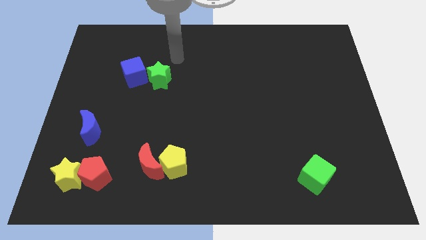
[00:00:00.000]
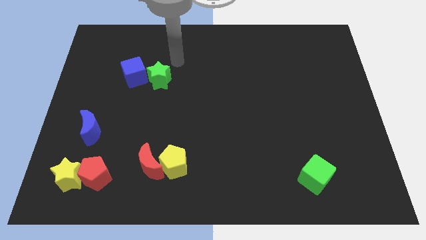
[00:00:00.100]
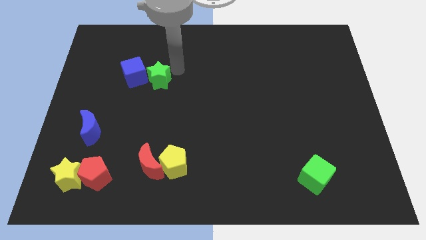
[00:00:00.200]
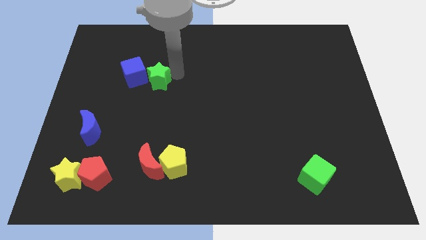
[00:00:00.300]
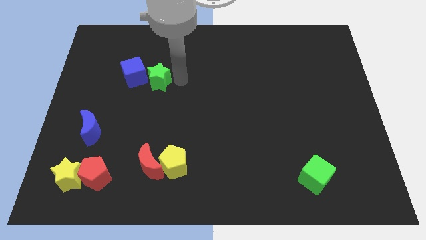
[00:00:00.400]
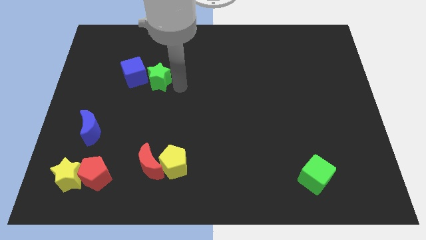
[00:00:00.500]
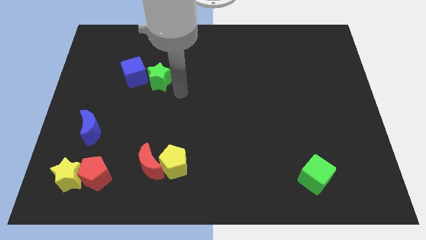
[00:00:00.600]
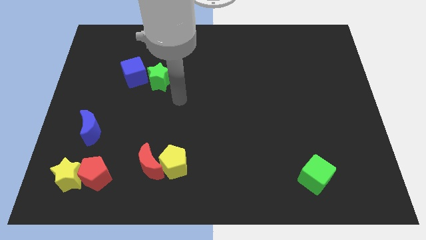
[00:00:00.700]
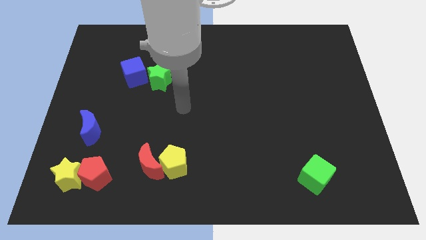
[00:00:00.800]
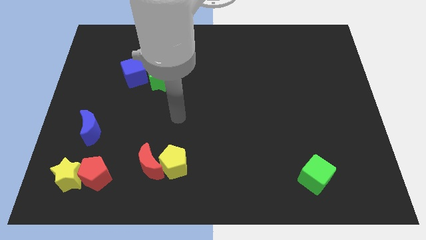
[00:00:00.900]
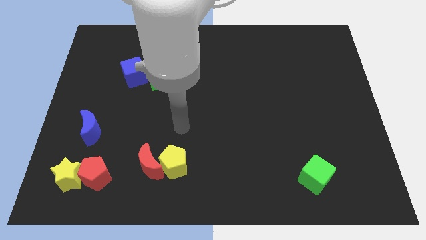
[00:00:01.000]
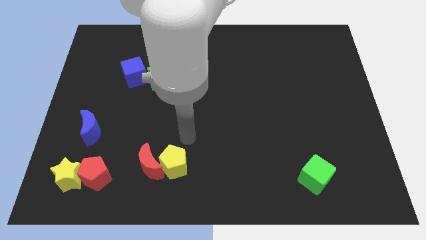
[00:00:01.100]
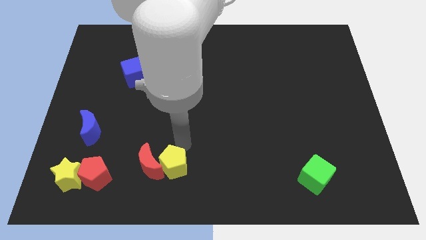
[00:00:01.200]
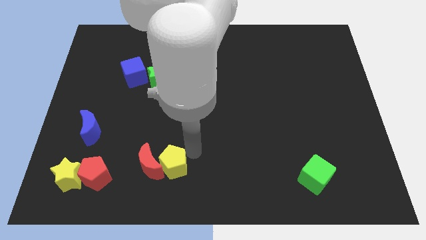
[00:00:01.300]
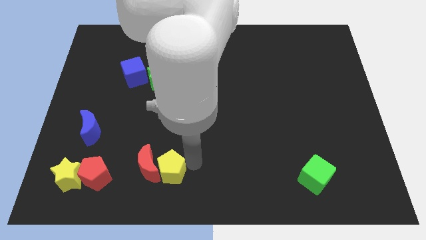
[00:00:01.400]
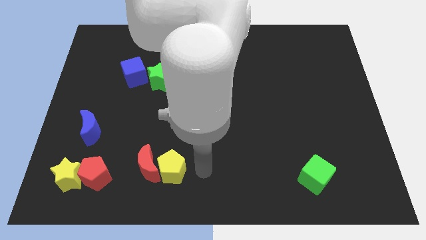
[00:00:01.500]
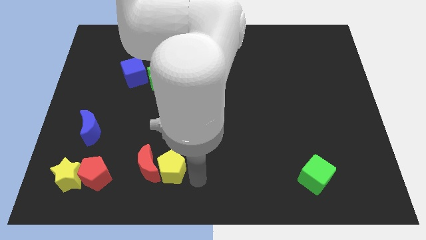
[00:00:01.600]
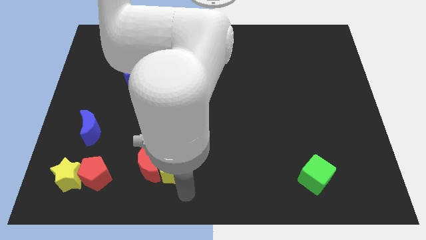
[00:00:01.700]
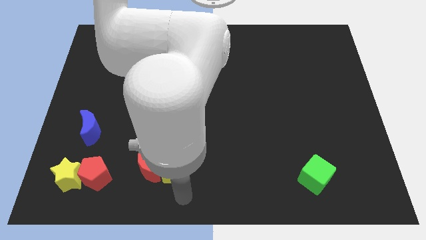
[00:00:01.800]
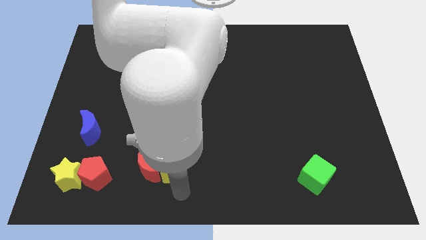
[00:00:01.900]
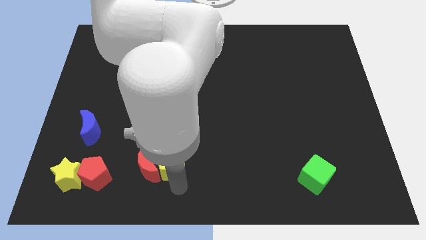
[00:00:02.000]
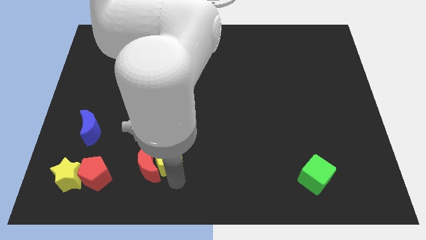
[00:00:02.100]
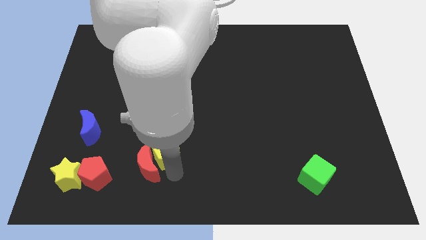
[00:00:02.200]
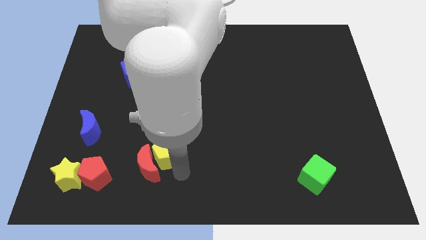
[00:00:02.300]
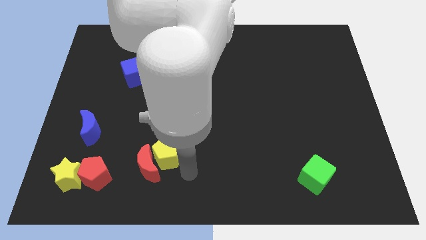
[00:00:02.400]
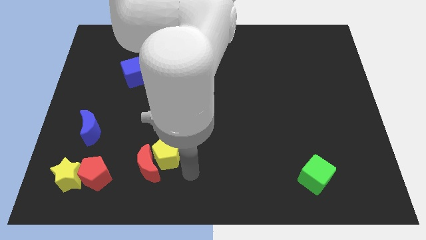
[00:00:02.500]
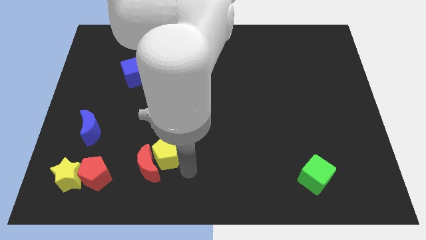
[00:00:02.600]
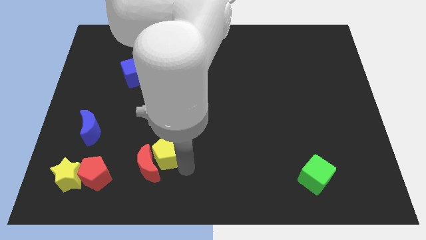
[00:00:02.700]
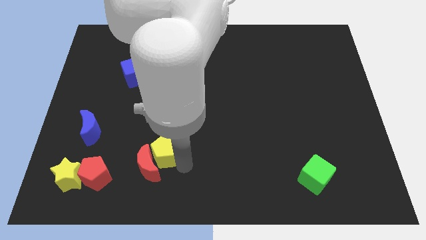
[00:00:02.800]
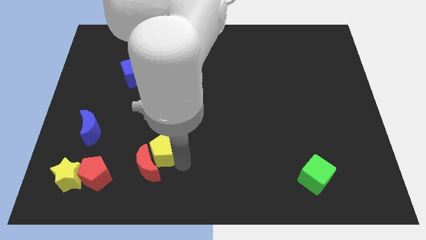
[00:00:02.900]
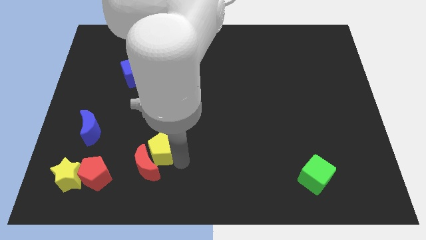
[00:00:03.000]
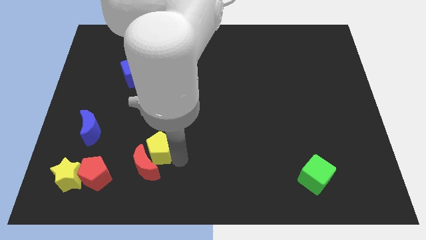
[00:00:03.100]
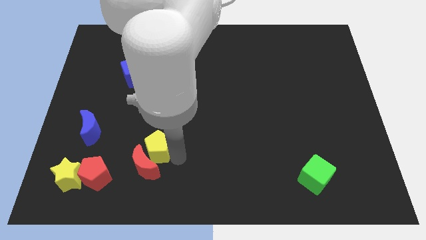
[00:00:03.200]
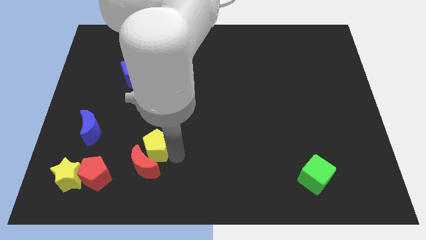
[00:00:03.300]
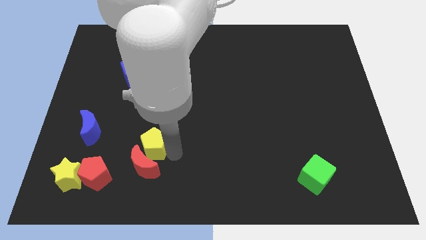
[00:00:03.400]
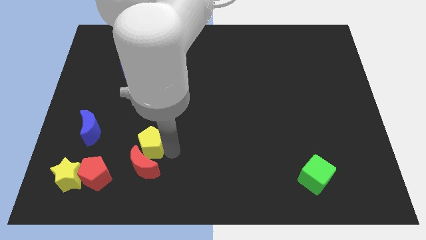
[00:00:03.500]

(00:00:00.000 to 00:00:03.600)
slightly push the yellow pentagon diagonally upwards and to the left

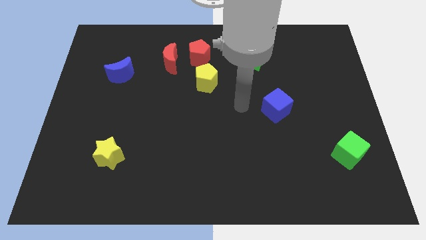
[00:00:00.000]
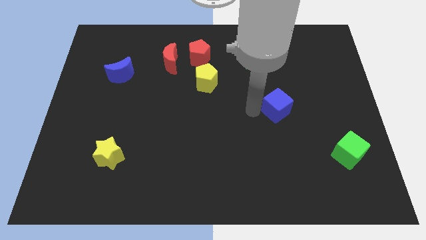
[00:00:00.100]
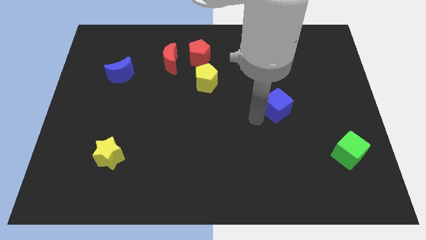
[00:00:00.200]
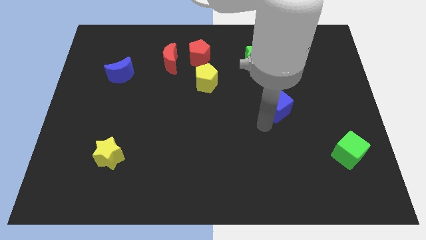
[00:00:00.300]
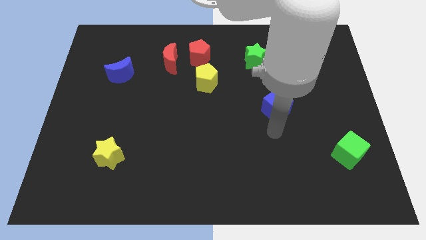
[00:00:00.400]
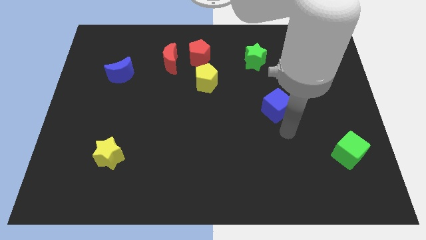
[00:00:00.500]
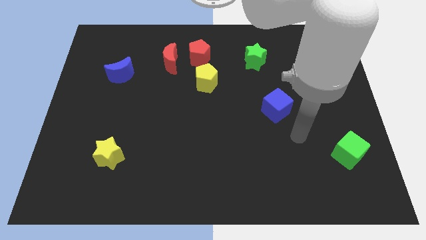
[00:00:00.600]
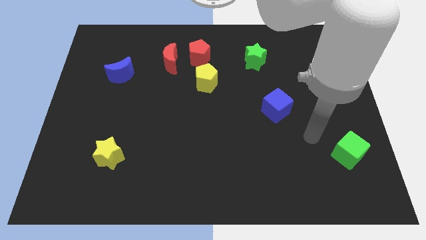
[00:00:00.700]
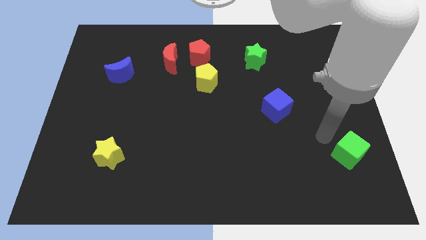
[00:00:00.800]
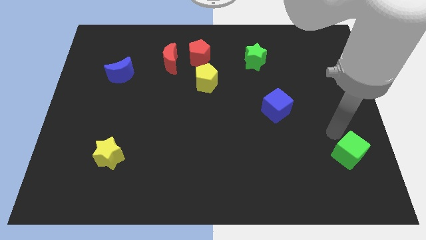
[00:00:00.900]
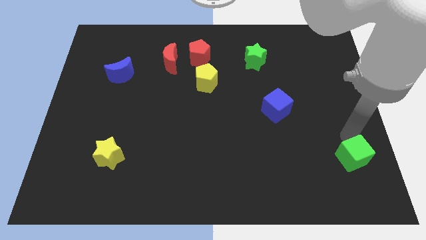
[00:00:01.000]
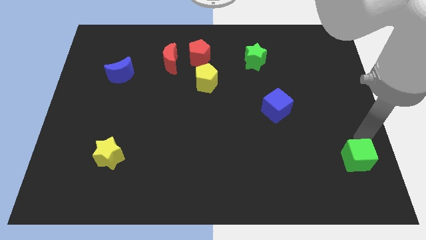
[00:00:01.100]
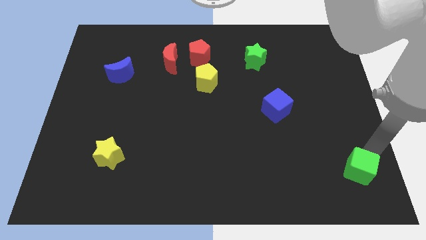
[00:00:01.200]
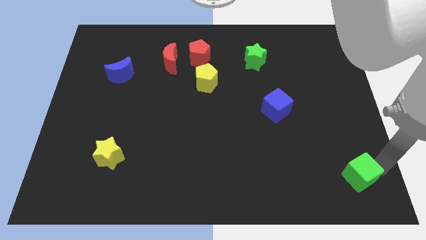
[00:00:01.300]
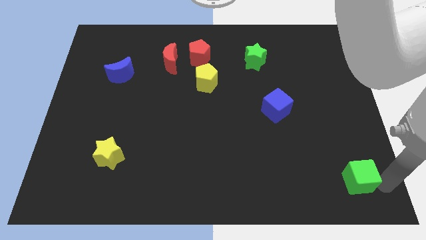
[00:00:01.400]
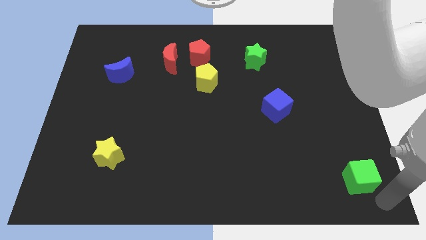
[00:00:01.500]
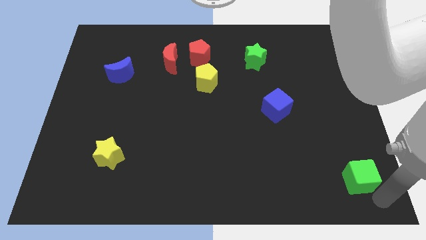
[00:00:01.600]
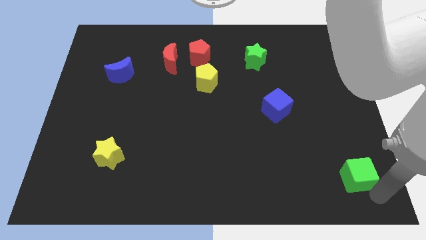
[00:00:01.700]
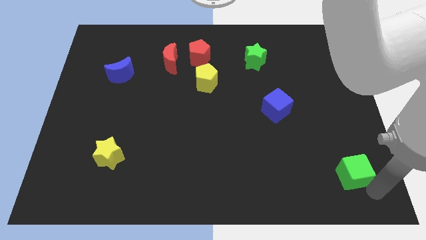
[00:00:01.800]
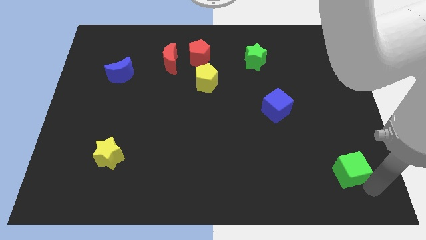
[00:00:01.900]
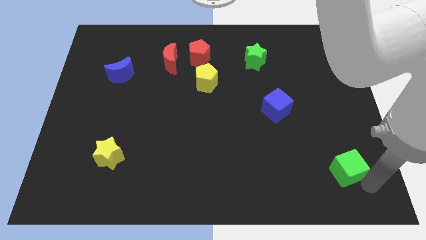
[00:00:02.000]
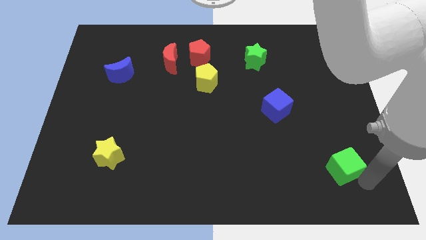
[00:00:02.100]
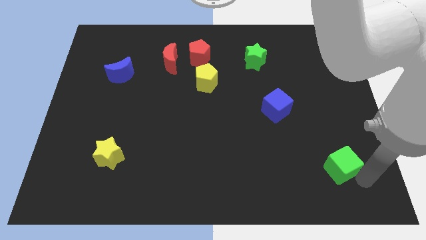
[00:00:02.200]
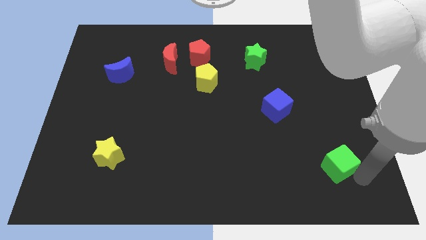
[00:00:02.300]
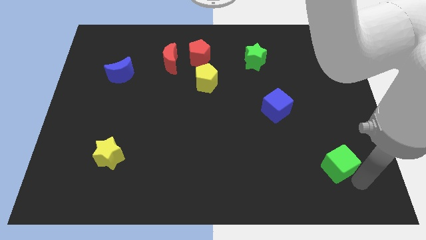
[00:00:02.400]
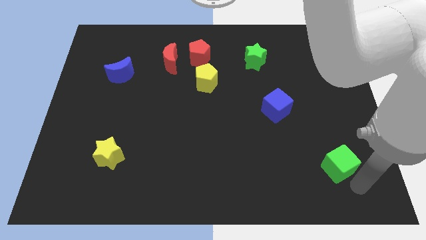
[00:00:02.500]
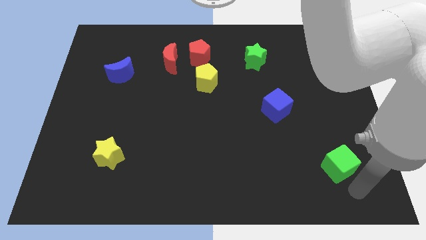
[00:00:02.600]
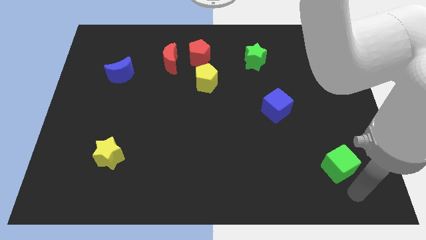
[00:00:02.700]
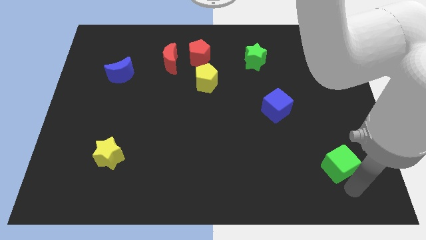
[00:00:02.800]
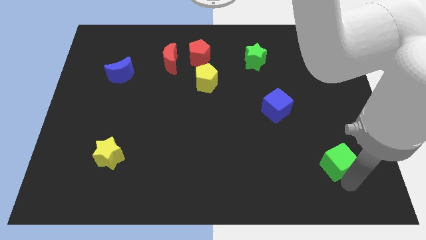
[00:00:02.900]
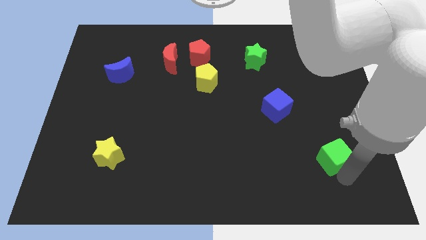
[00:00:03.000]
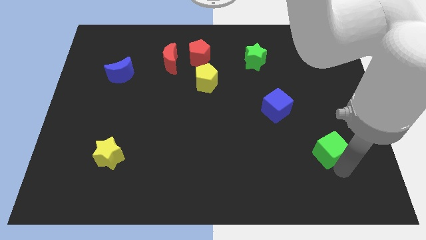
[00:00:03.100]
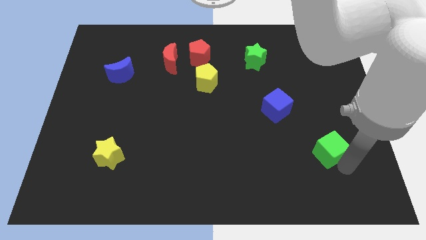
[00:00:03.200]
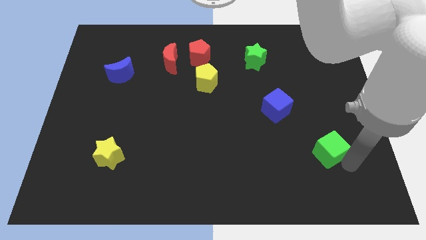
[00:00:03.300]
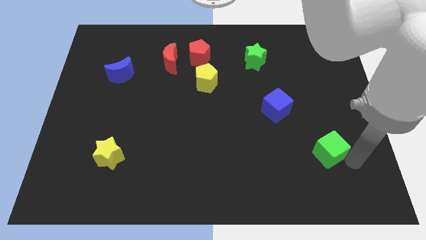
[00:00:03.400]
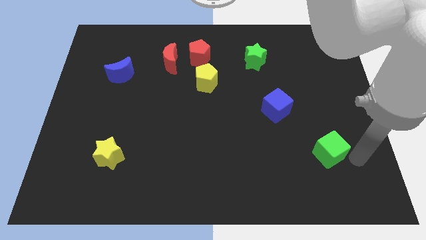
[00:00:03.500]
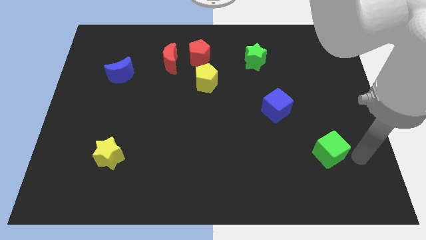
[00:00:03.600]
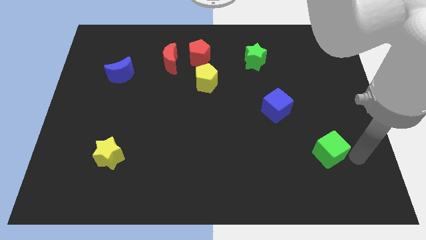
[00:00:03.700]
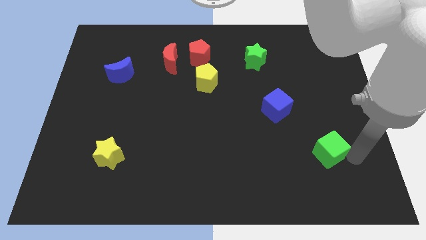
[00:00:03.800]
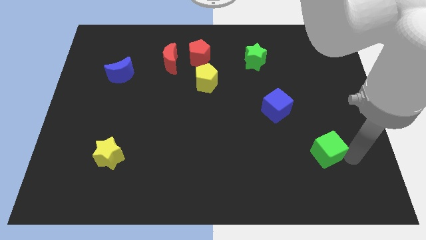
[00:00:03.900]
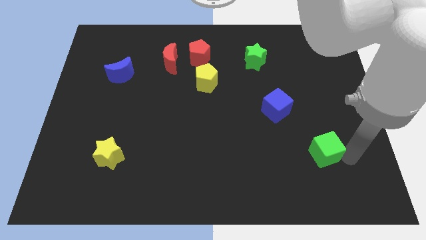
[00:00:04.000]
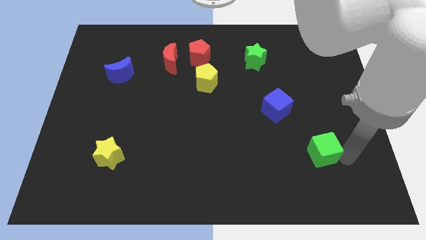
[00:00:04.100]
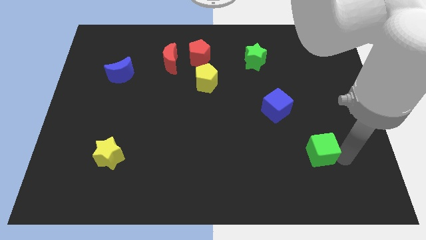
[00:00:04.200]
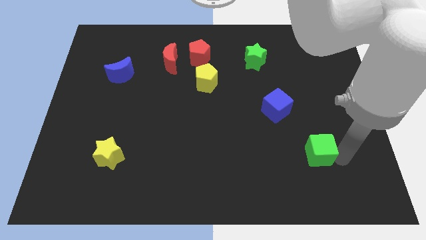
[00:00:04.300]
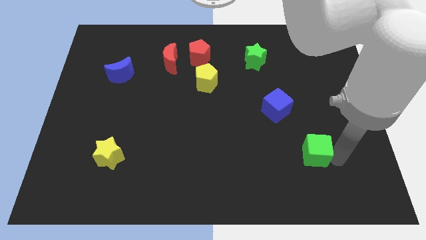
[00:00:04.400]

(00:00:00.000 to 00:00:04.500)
move the green cube a bit left

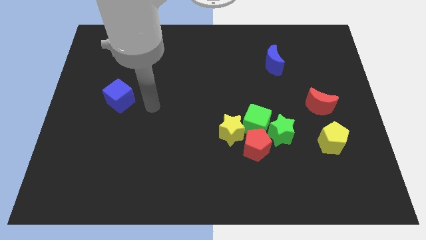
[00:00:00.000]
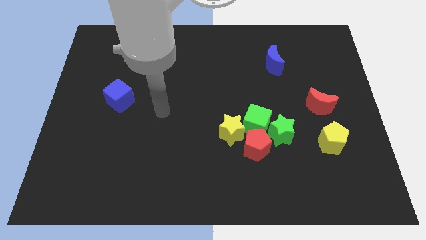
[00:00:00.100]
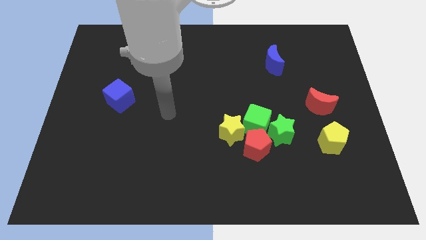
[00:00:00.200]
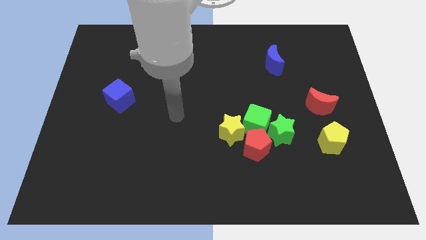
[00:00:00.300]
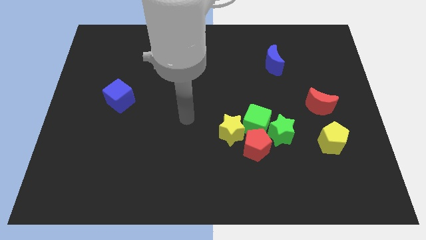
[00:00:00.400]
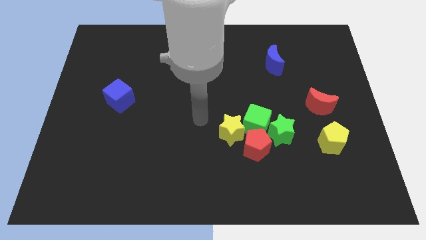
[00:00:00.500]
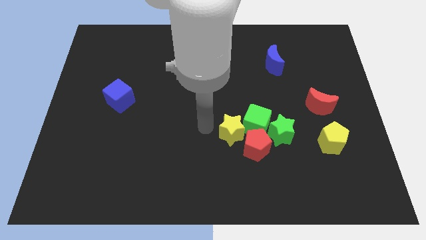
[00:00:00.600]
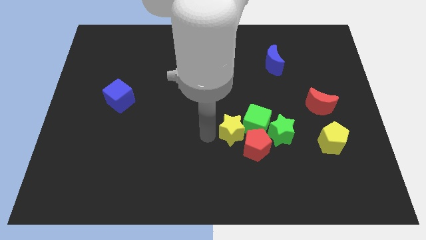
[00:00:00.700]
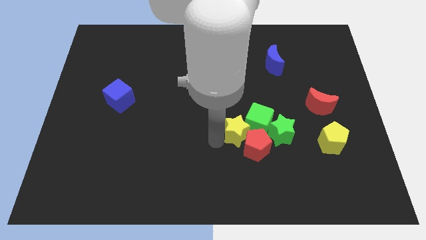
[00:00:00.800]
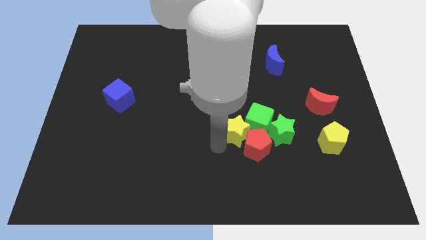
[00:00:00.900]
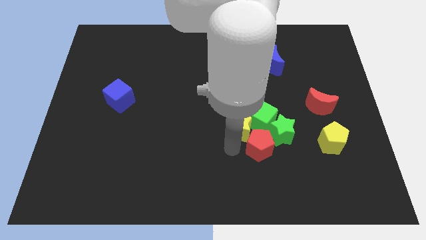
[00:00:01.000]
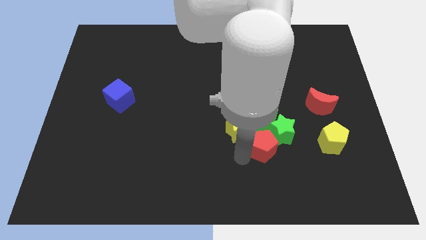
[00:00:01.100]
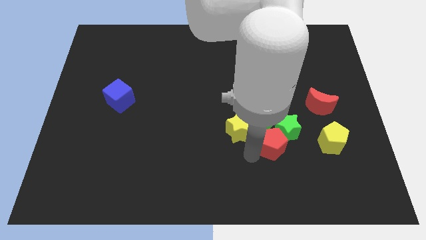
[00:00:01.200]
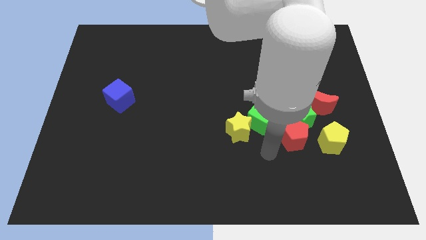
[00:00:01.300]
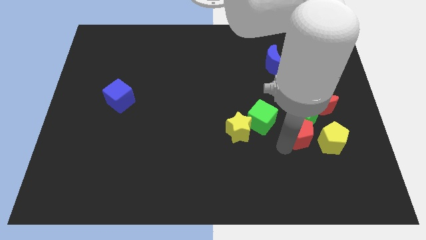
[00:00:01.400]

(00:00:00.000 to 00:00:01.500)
move the green star up and then to the right a little bit
